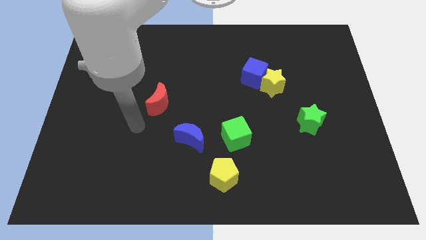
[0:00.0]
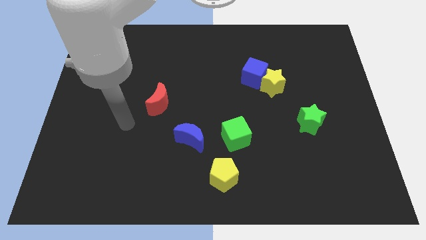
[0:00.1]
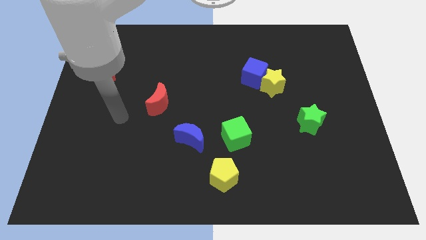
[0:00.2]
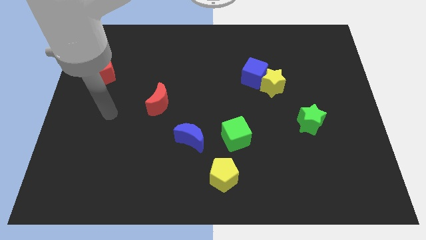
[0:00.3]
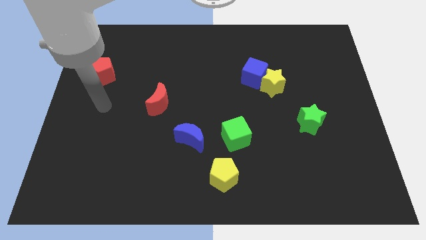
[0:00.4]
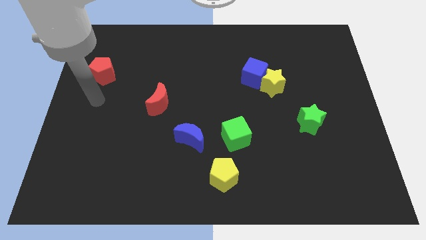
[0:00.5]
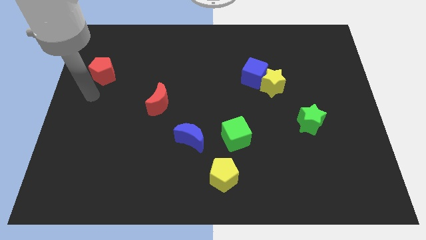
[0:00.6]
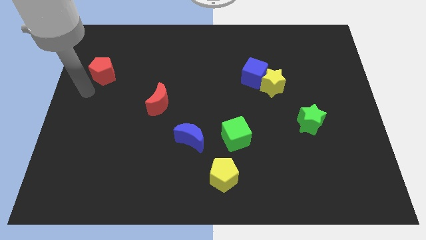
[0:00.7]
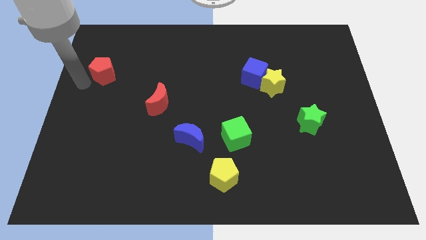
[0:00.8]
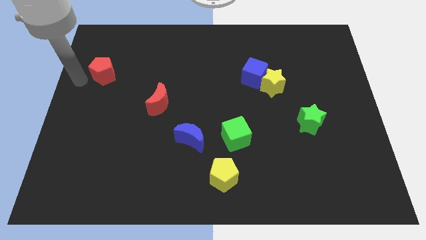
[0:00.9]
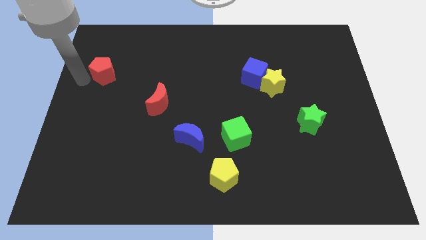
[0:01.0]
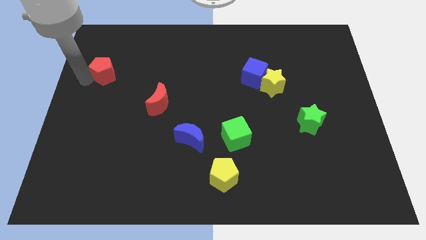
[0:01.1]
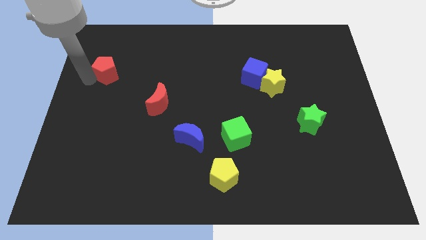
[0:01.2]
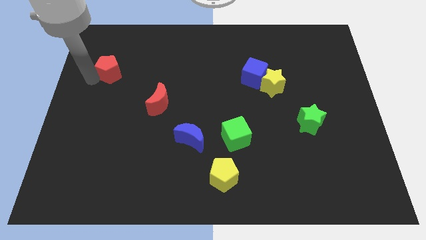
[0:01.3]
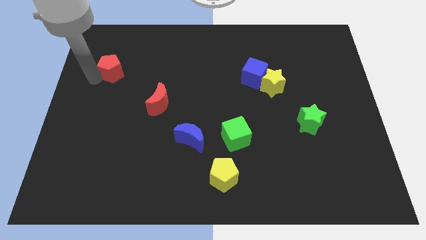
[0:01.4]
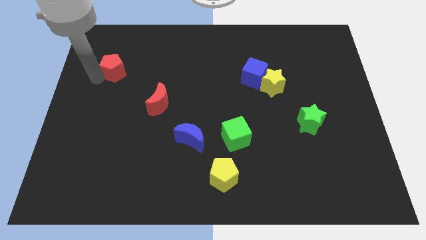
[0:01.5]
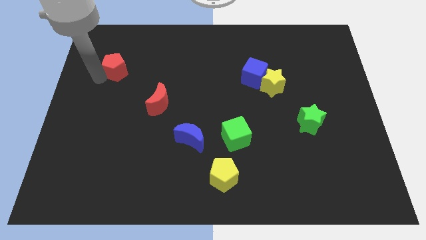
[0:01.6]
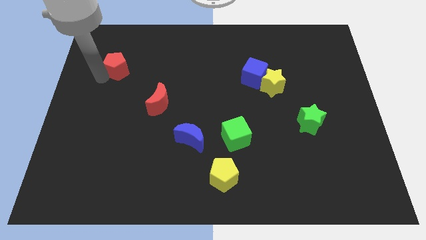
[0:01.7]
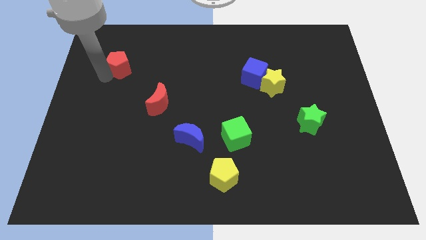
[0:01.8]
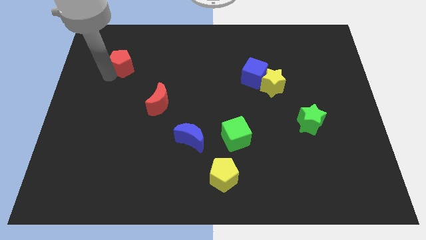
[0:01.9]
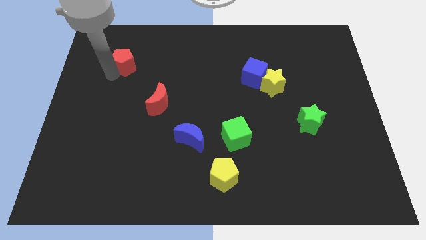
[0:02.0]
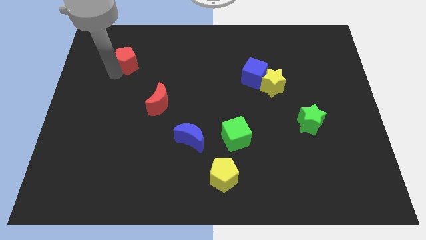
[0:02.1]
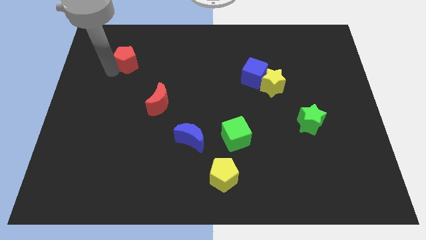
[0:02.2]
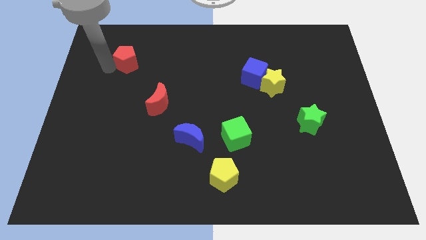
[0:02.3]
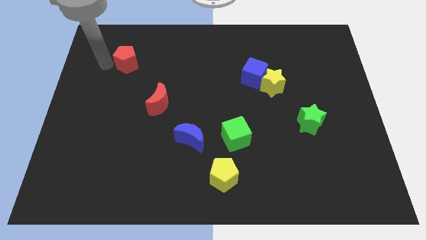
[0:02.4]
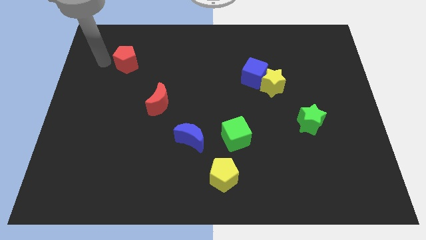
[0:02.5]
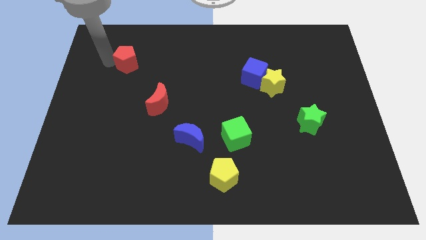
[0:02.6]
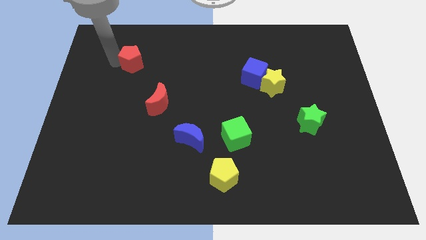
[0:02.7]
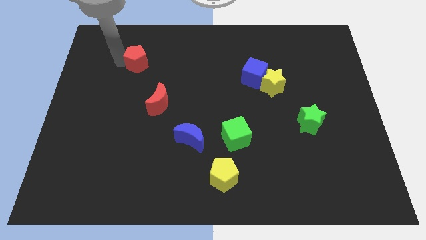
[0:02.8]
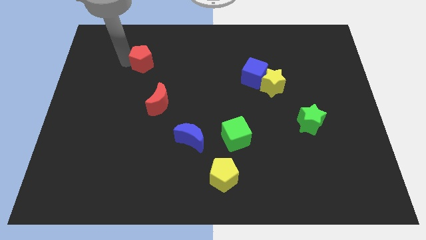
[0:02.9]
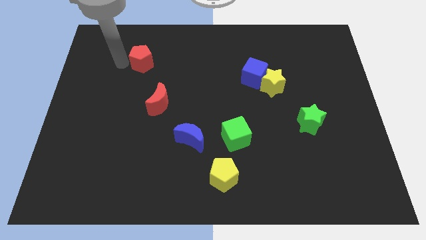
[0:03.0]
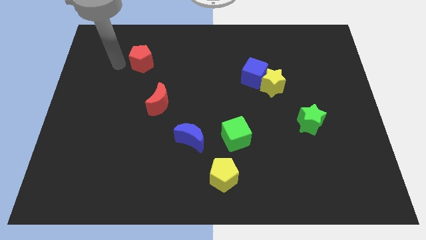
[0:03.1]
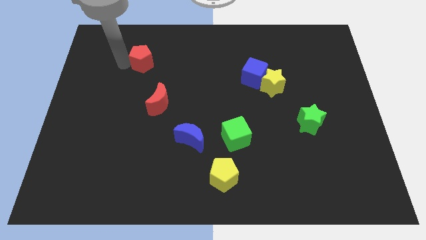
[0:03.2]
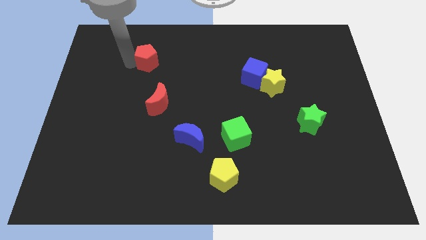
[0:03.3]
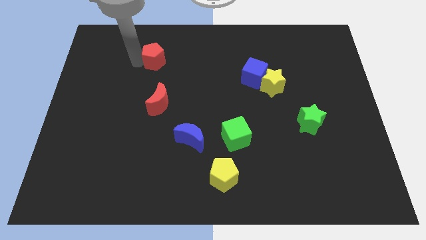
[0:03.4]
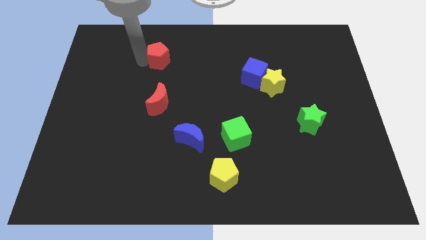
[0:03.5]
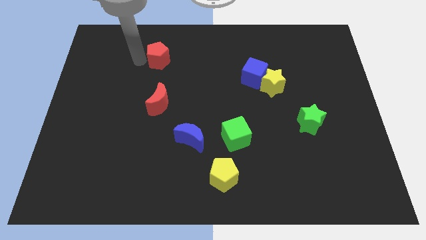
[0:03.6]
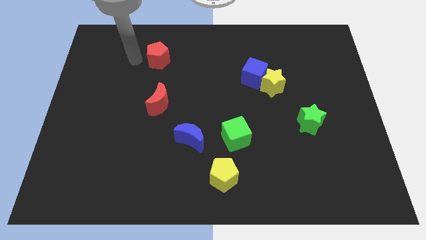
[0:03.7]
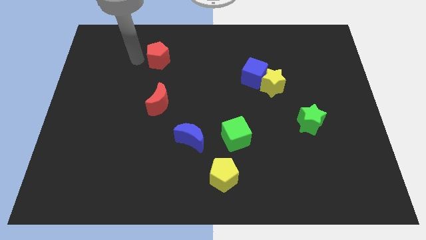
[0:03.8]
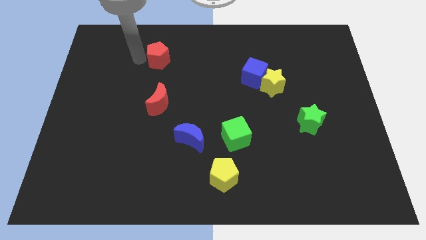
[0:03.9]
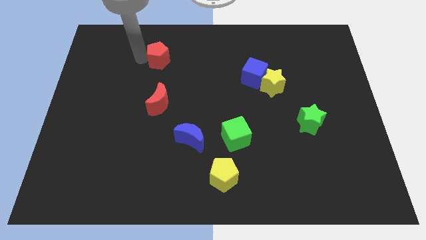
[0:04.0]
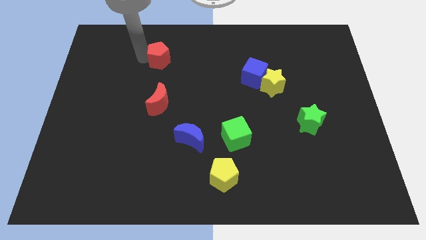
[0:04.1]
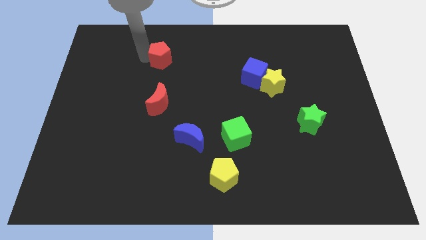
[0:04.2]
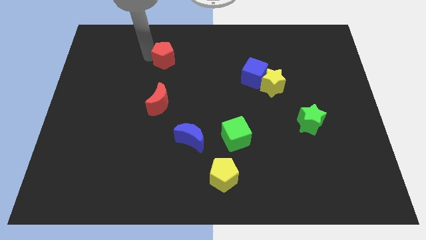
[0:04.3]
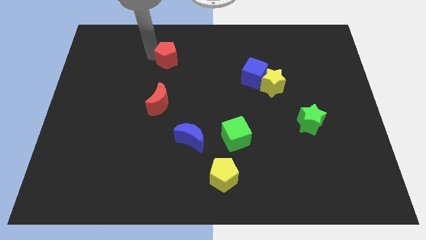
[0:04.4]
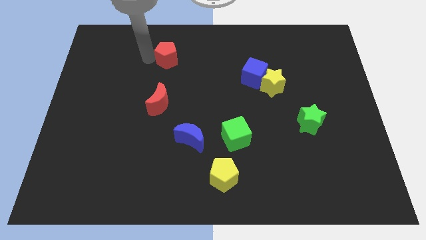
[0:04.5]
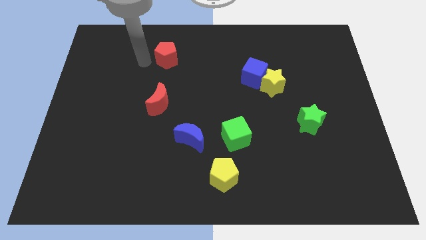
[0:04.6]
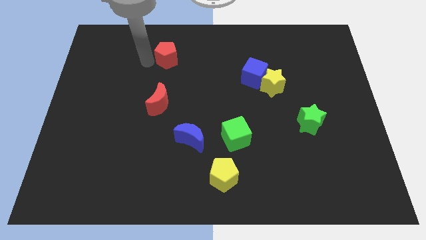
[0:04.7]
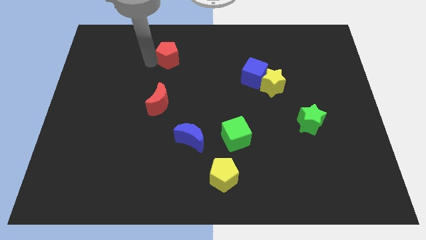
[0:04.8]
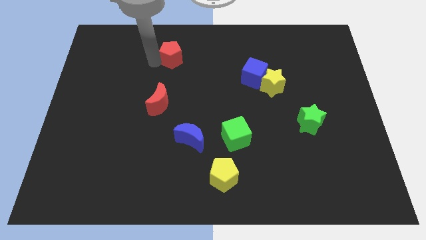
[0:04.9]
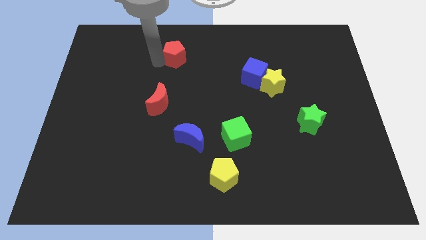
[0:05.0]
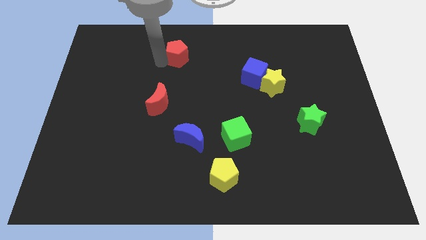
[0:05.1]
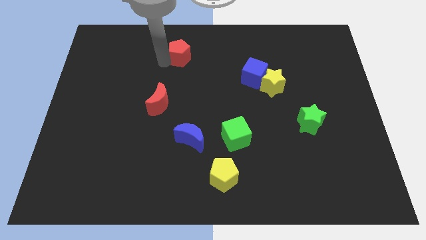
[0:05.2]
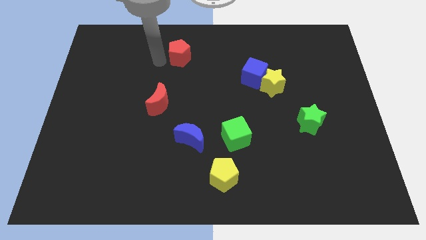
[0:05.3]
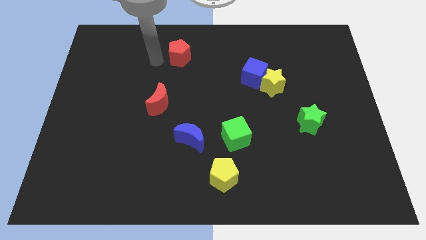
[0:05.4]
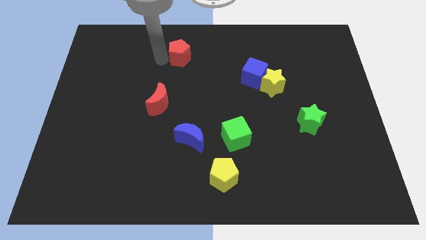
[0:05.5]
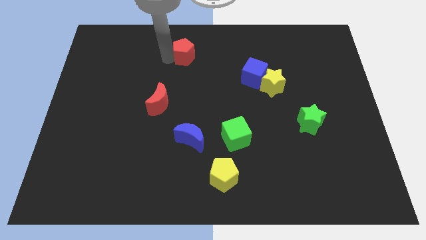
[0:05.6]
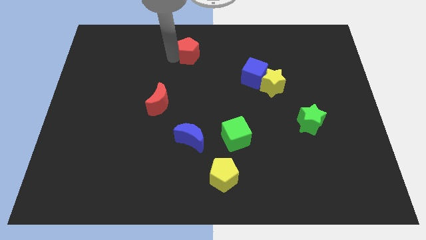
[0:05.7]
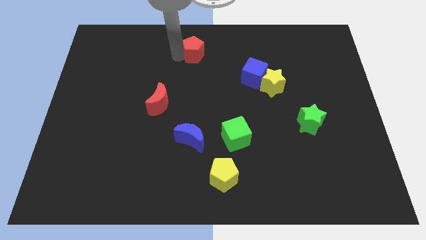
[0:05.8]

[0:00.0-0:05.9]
put the red pentagon to the towards your base

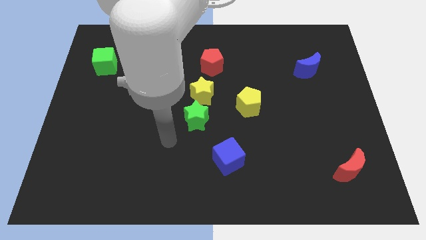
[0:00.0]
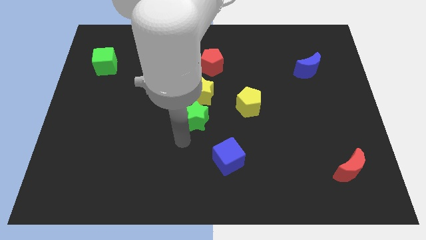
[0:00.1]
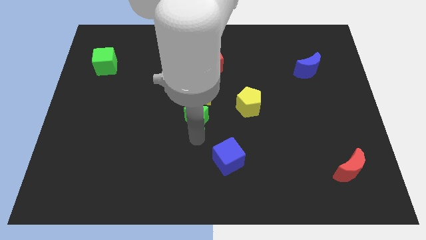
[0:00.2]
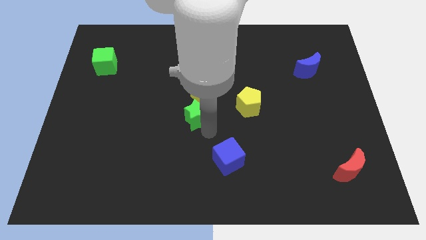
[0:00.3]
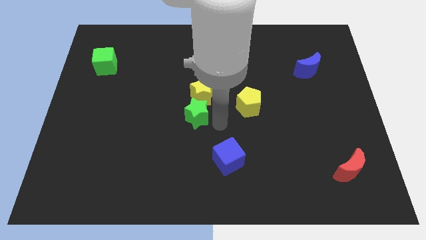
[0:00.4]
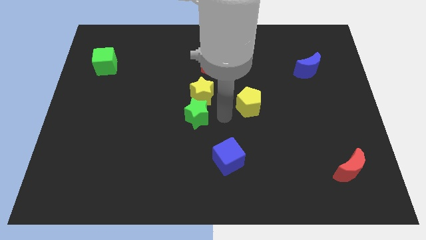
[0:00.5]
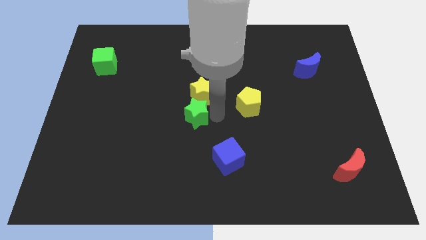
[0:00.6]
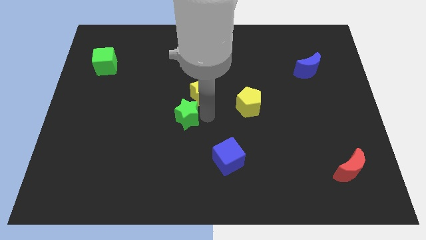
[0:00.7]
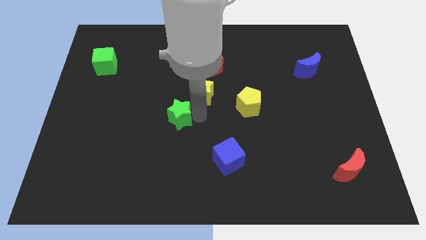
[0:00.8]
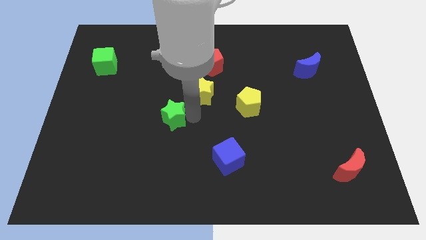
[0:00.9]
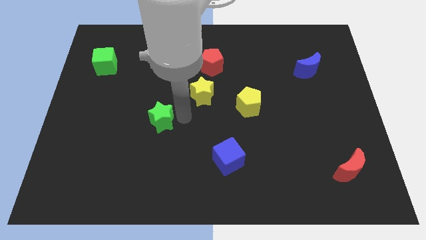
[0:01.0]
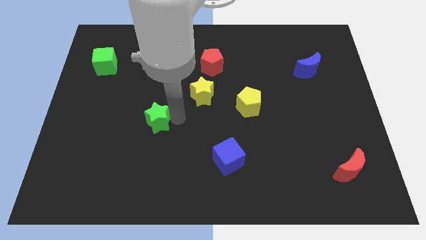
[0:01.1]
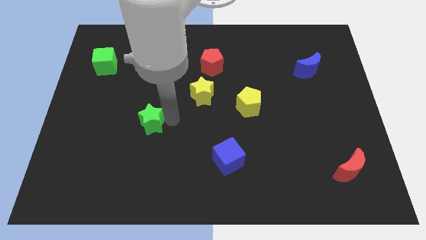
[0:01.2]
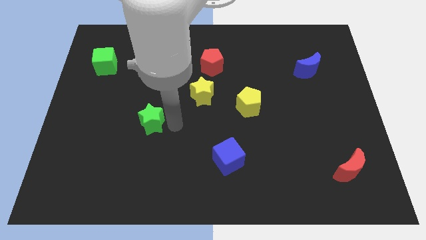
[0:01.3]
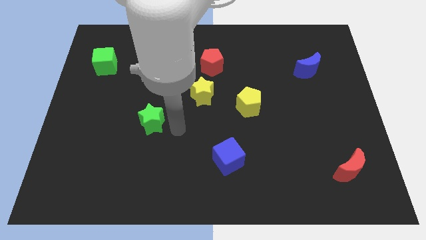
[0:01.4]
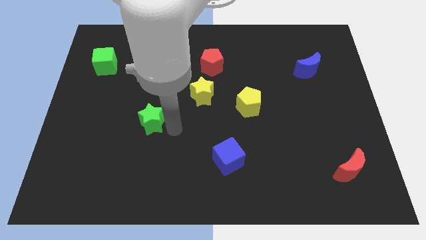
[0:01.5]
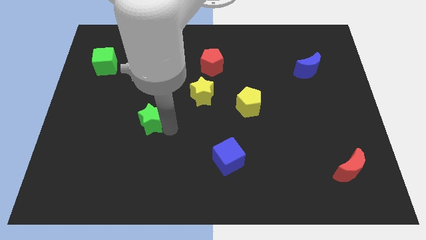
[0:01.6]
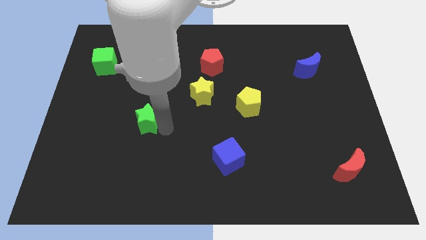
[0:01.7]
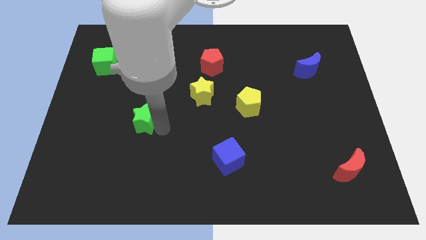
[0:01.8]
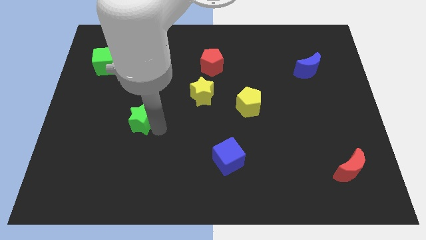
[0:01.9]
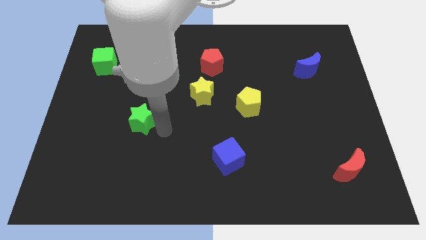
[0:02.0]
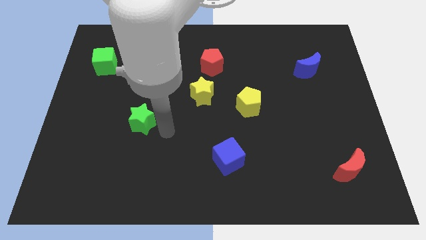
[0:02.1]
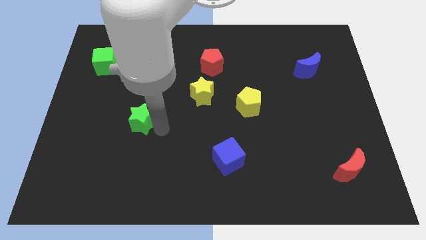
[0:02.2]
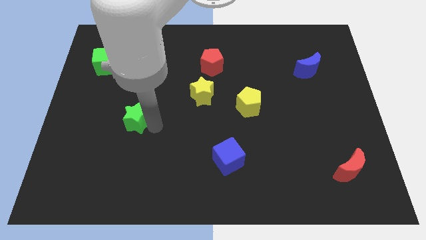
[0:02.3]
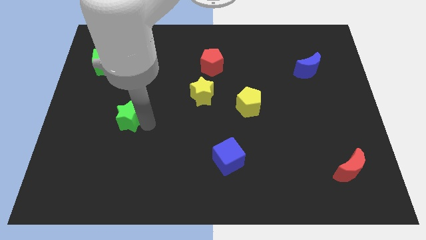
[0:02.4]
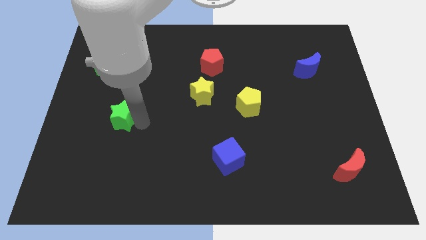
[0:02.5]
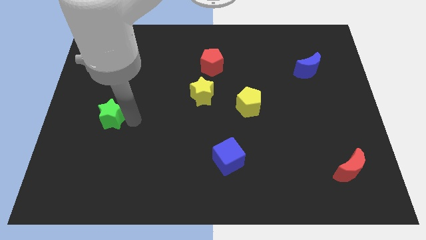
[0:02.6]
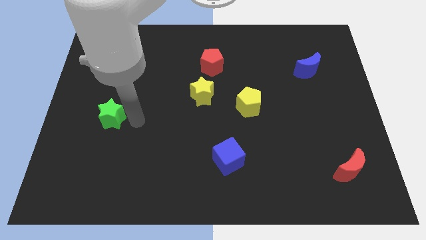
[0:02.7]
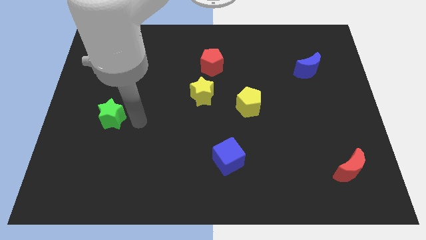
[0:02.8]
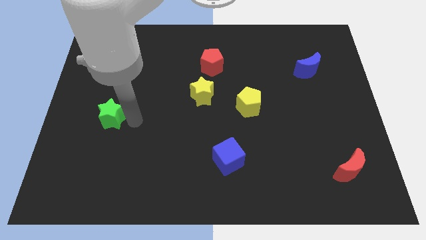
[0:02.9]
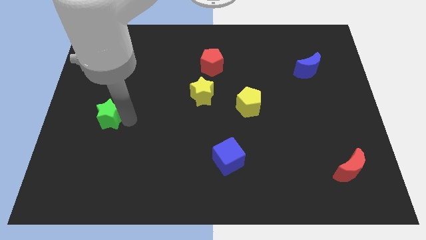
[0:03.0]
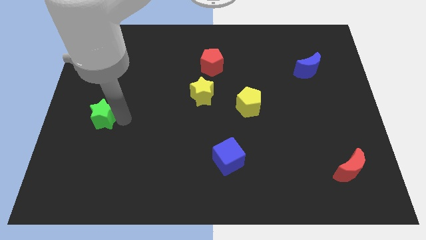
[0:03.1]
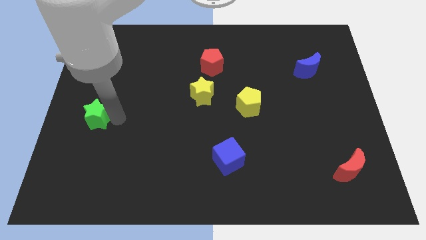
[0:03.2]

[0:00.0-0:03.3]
slide the green star to the center left
